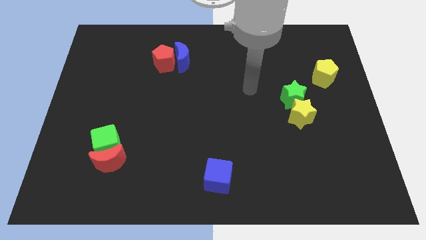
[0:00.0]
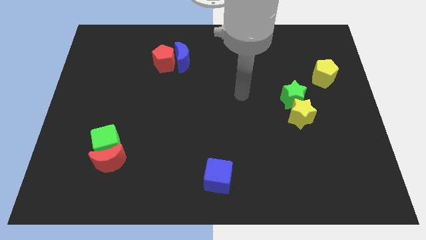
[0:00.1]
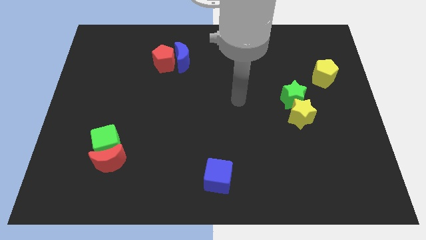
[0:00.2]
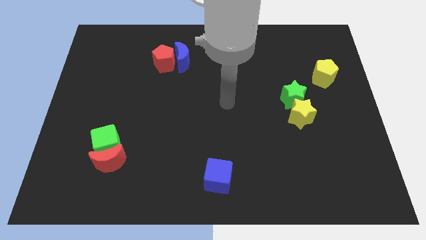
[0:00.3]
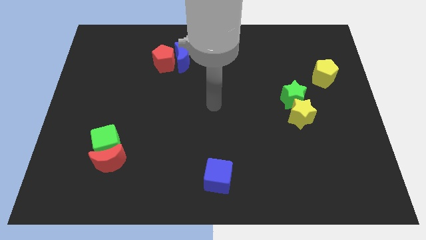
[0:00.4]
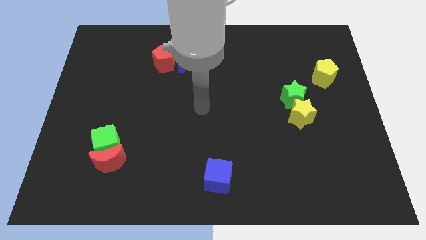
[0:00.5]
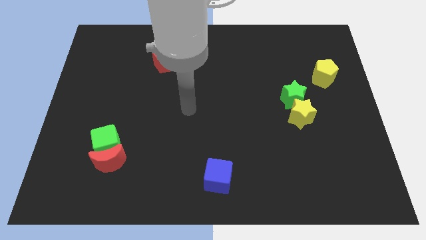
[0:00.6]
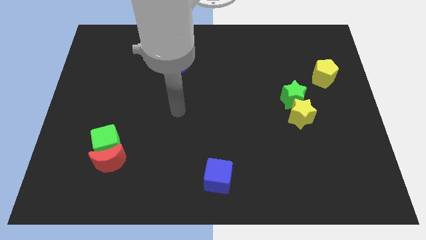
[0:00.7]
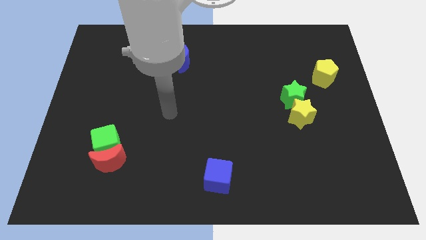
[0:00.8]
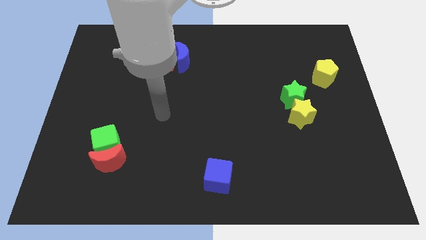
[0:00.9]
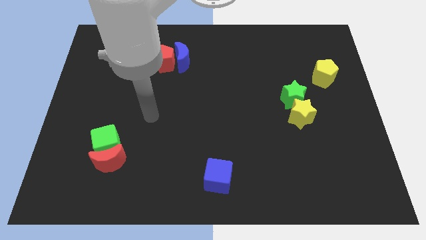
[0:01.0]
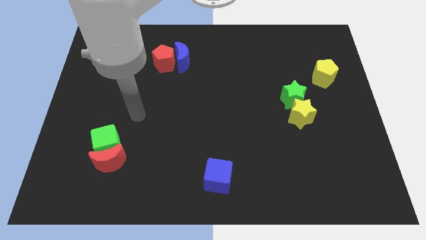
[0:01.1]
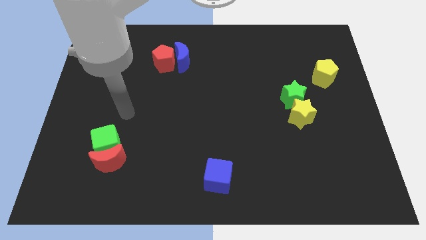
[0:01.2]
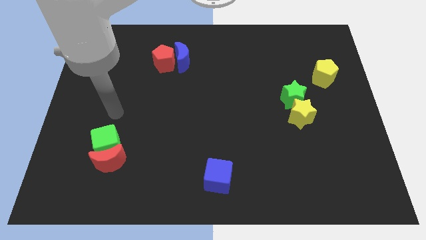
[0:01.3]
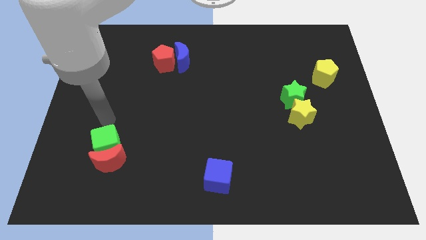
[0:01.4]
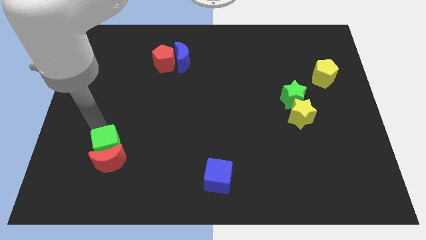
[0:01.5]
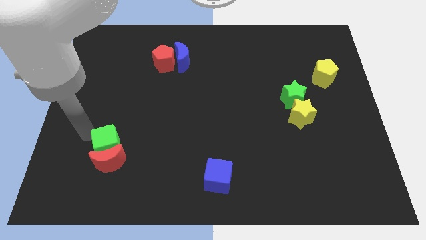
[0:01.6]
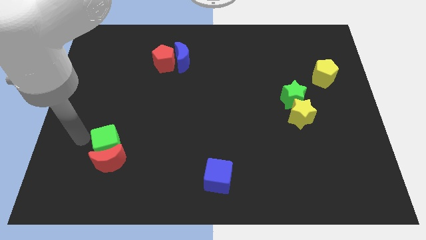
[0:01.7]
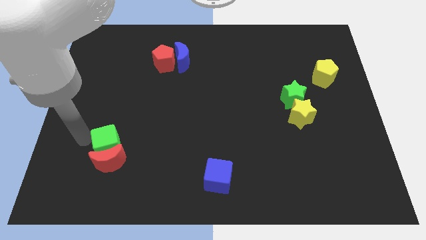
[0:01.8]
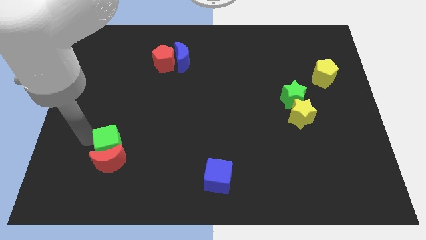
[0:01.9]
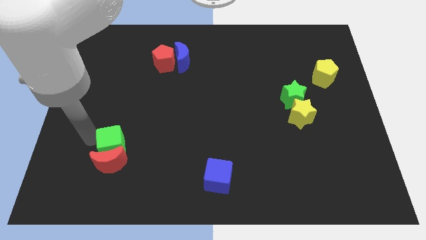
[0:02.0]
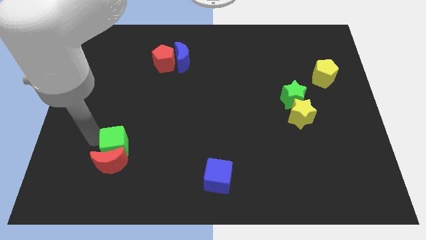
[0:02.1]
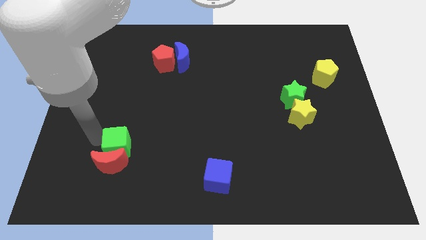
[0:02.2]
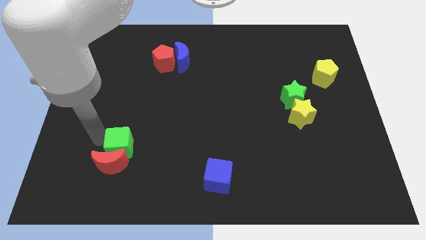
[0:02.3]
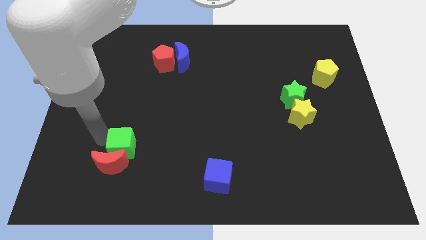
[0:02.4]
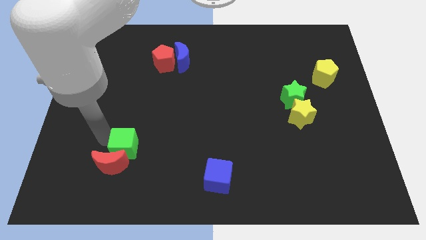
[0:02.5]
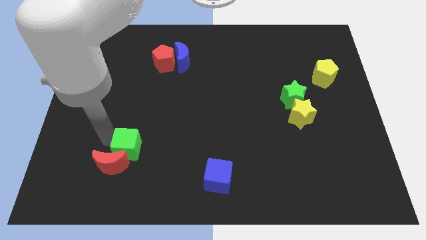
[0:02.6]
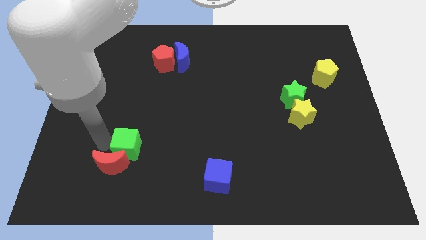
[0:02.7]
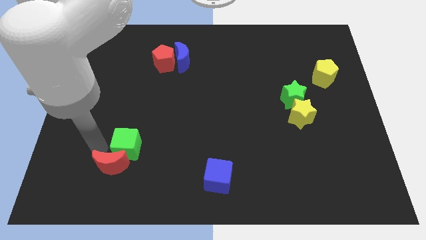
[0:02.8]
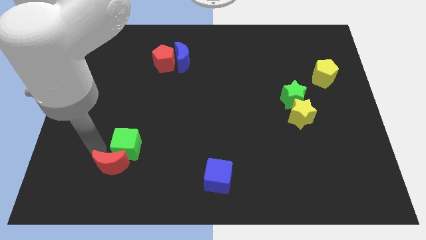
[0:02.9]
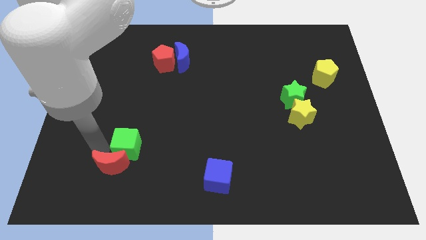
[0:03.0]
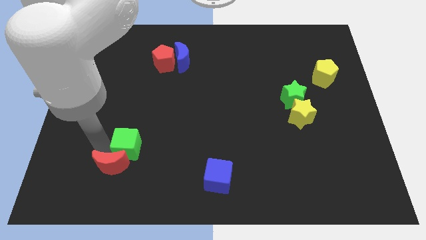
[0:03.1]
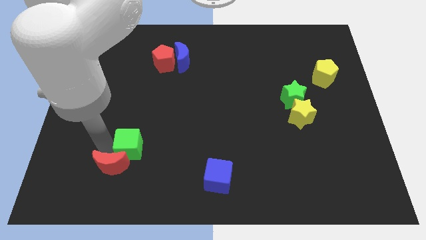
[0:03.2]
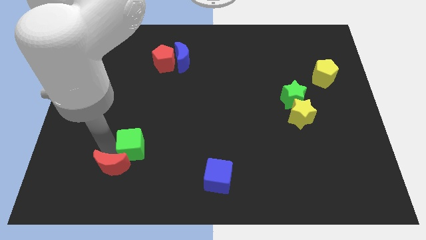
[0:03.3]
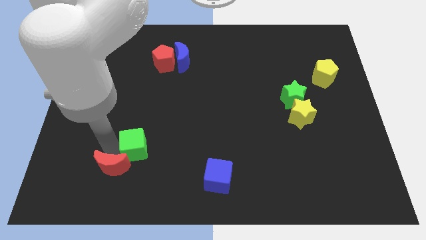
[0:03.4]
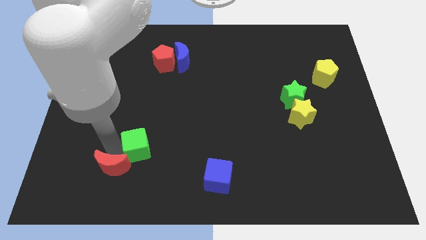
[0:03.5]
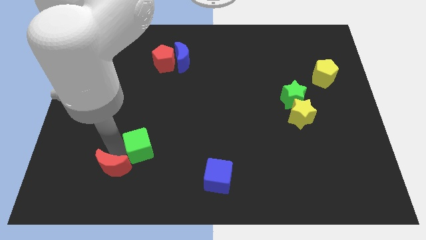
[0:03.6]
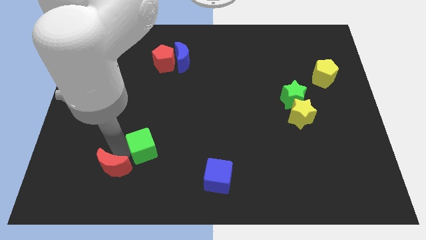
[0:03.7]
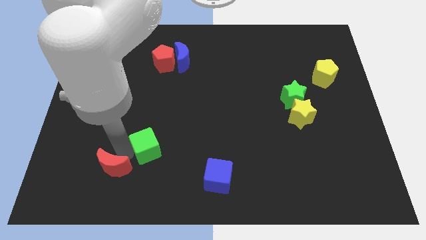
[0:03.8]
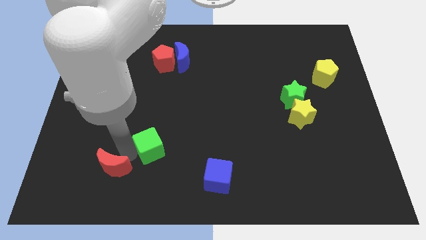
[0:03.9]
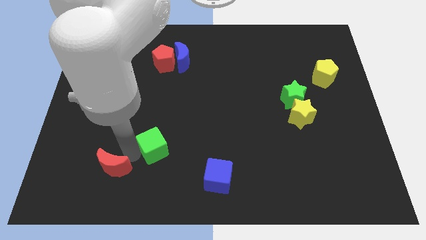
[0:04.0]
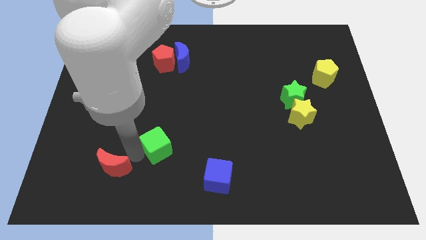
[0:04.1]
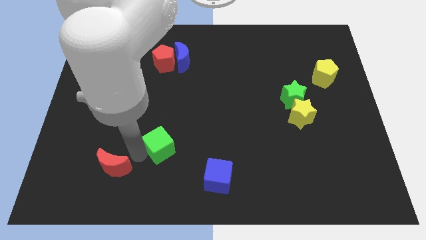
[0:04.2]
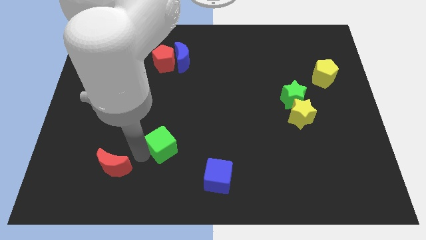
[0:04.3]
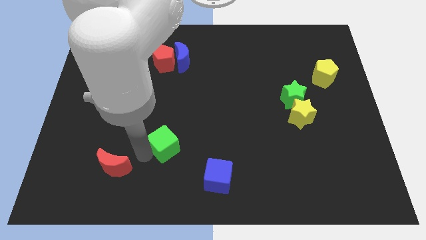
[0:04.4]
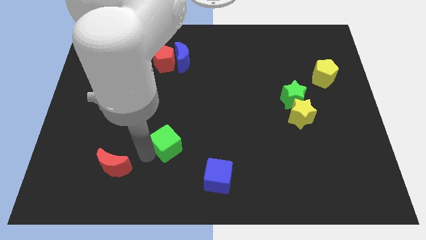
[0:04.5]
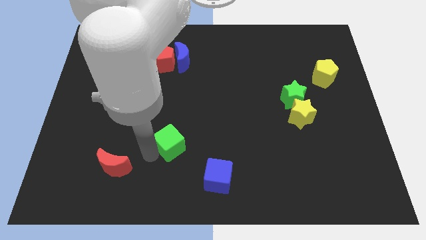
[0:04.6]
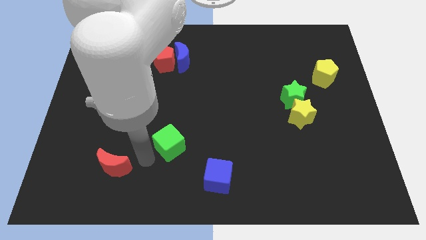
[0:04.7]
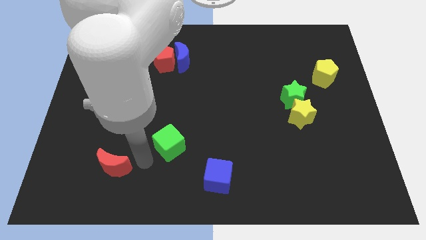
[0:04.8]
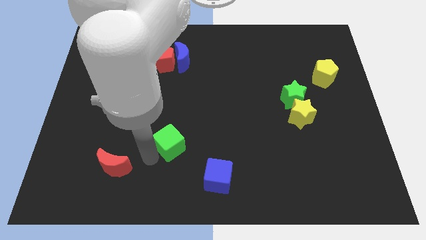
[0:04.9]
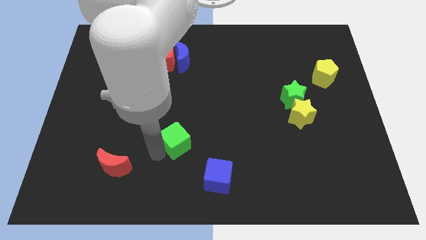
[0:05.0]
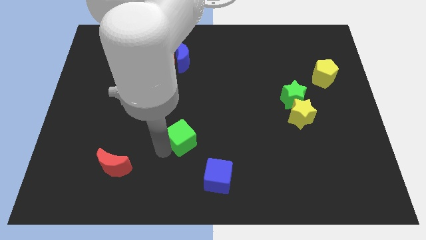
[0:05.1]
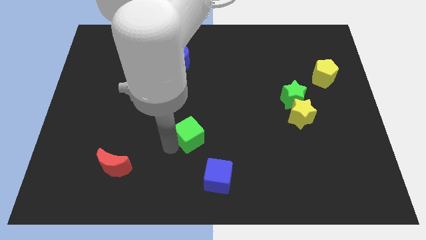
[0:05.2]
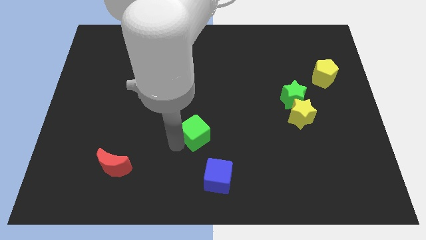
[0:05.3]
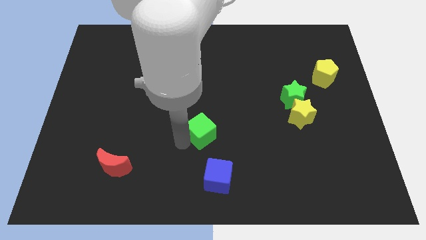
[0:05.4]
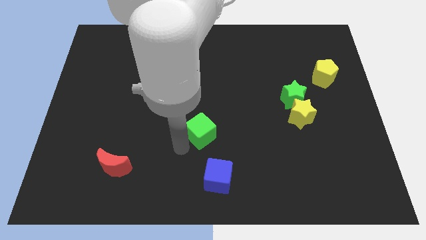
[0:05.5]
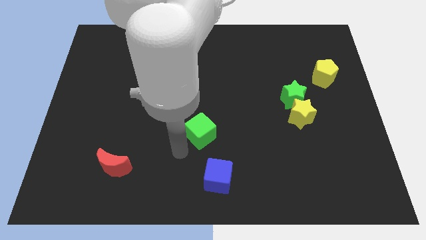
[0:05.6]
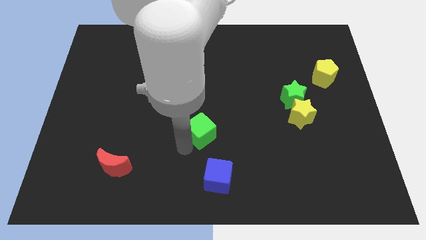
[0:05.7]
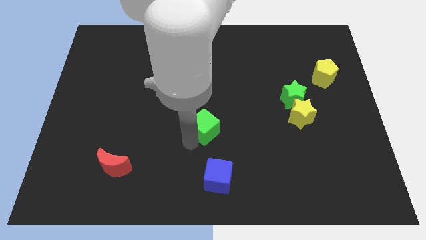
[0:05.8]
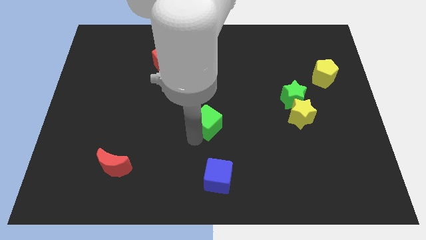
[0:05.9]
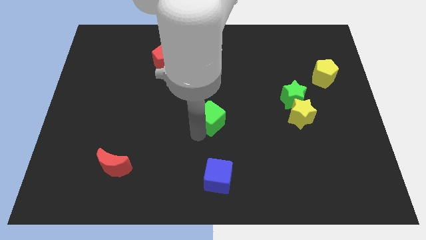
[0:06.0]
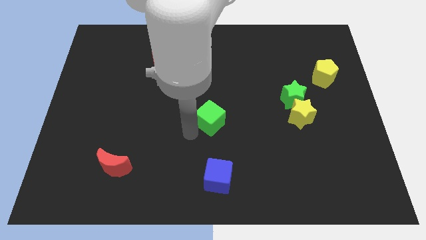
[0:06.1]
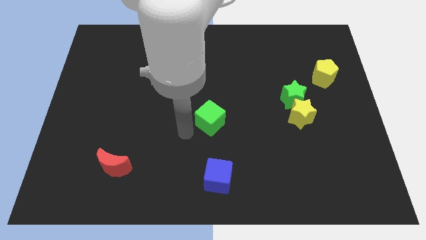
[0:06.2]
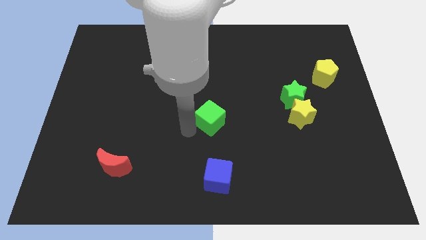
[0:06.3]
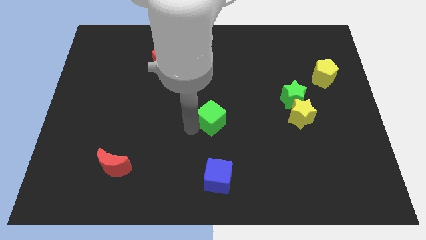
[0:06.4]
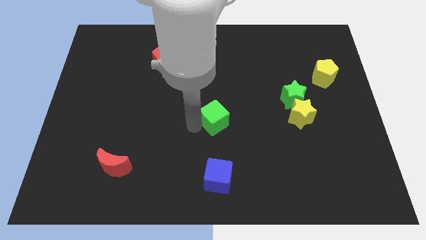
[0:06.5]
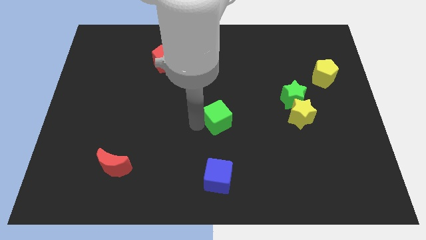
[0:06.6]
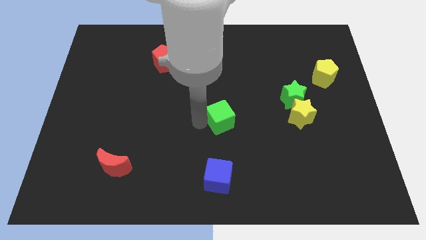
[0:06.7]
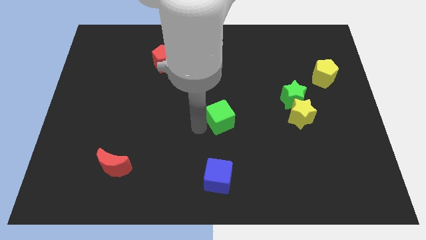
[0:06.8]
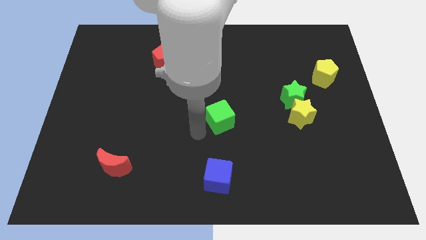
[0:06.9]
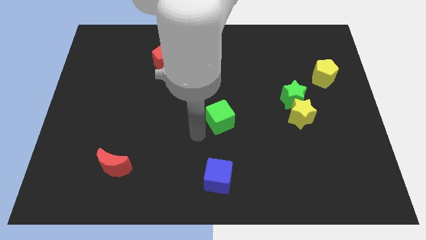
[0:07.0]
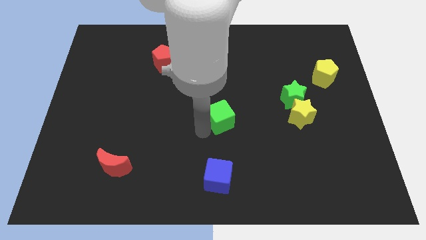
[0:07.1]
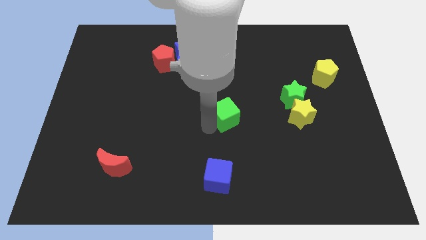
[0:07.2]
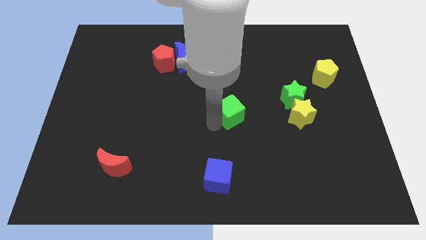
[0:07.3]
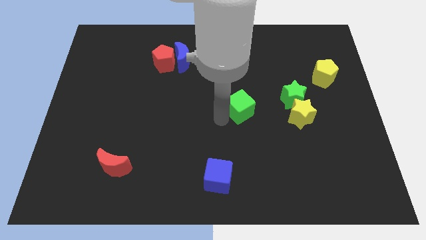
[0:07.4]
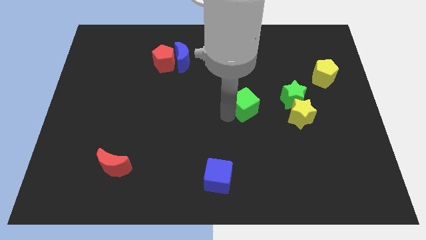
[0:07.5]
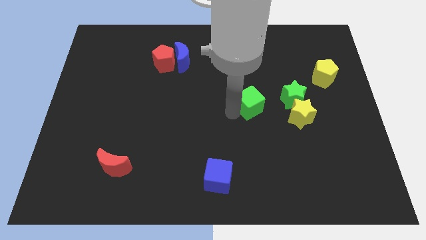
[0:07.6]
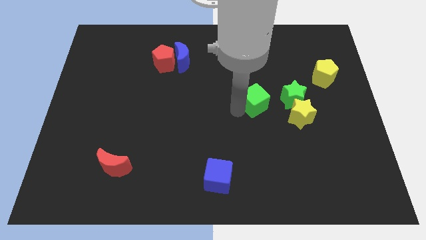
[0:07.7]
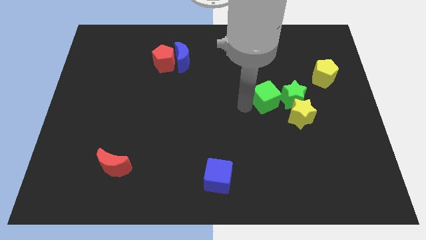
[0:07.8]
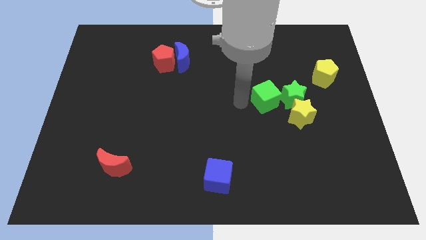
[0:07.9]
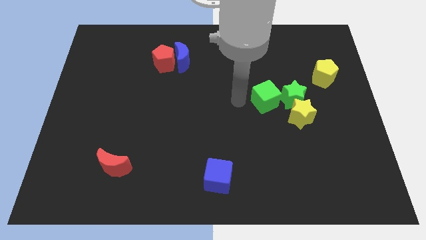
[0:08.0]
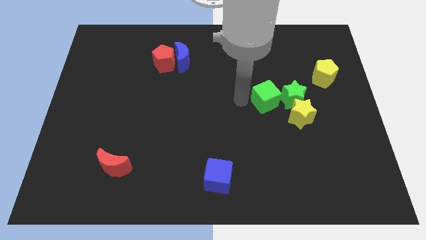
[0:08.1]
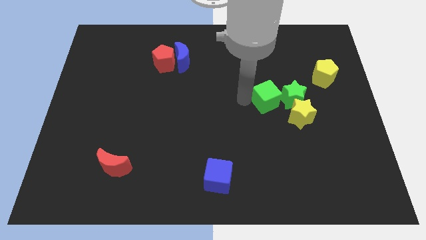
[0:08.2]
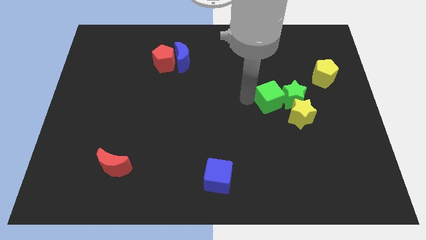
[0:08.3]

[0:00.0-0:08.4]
push the green cube towards the green star
